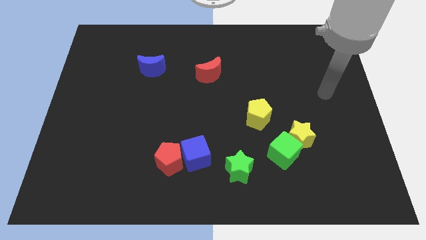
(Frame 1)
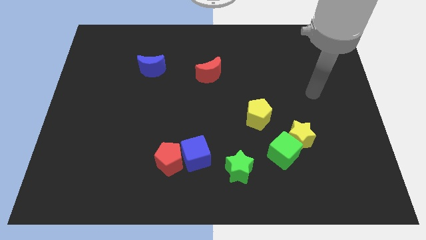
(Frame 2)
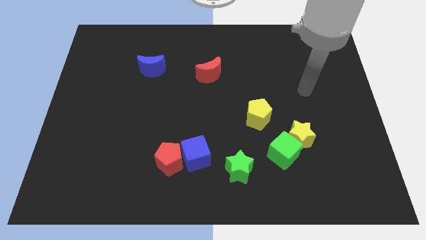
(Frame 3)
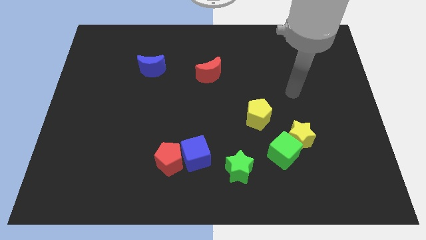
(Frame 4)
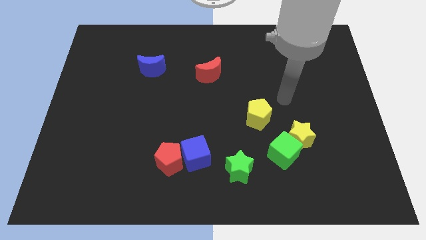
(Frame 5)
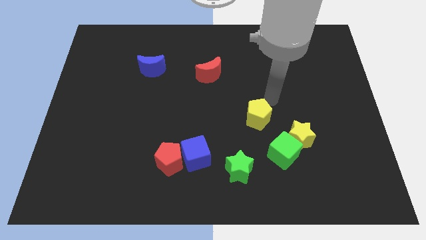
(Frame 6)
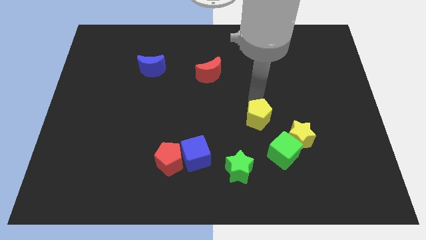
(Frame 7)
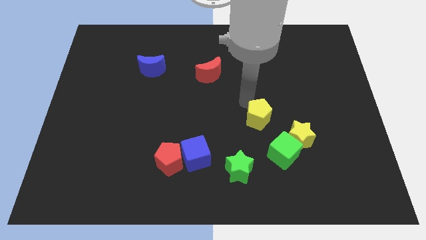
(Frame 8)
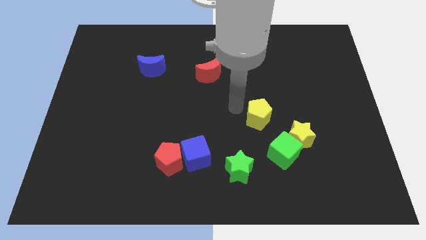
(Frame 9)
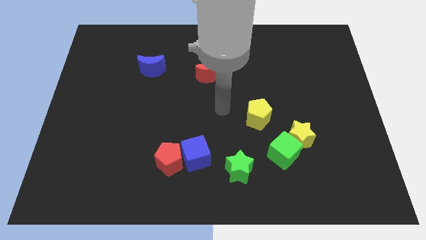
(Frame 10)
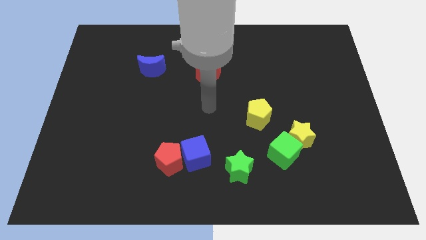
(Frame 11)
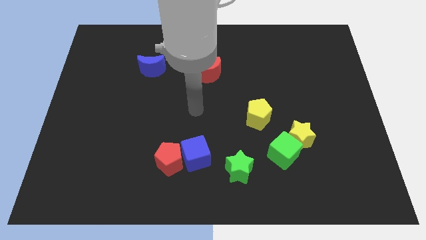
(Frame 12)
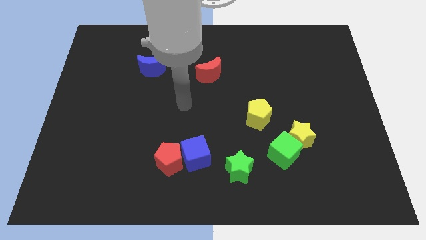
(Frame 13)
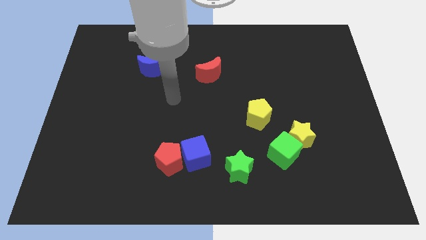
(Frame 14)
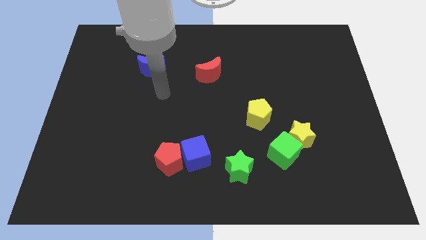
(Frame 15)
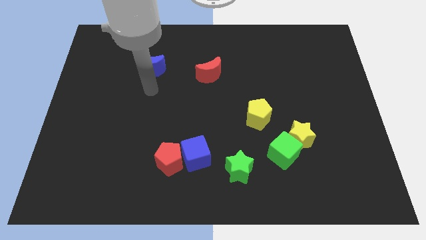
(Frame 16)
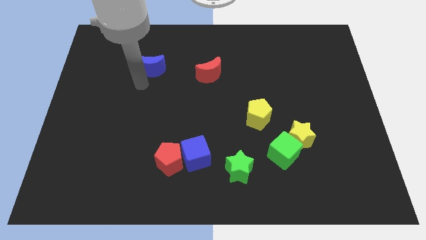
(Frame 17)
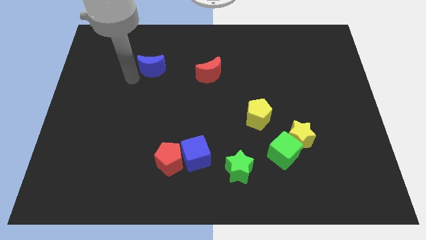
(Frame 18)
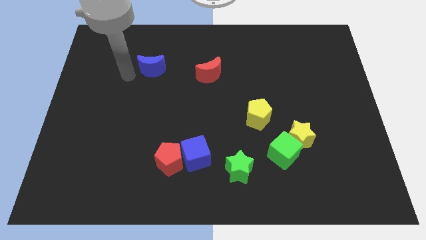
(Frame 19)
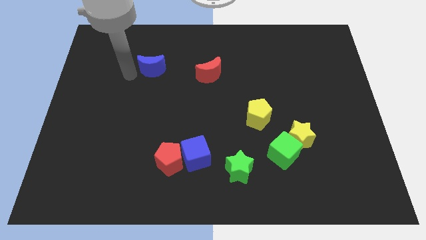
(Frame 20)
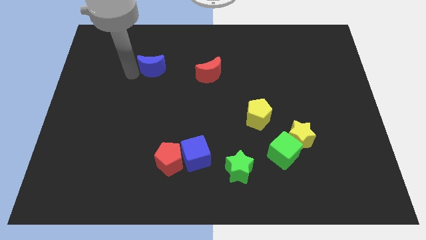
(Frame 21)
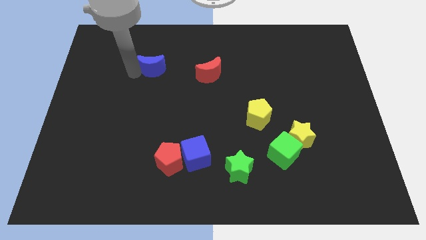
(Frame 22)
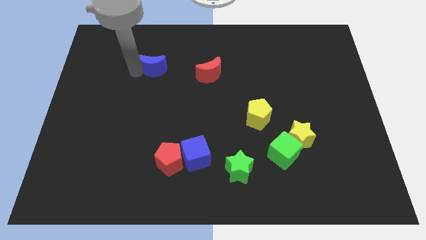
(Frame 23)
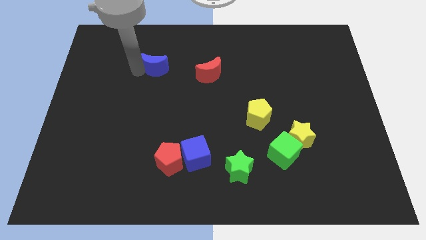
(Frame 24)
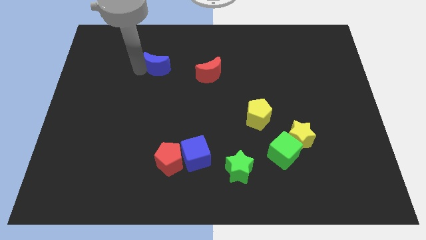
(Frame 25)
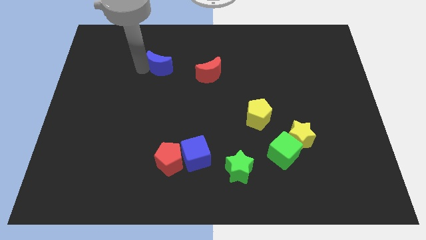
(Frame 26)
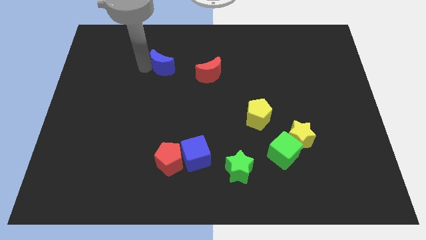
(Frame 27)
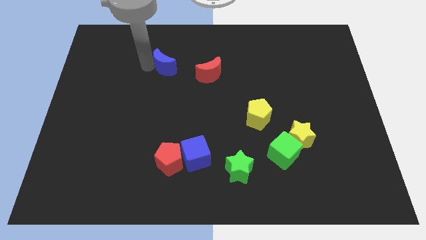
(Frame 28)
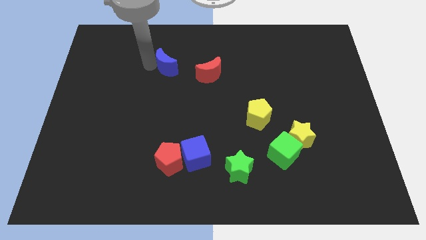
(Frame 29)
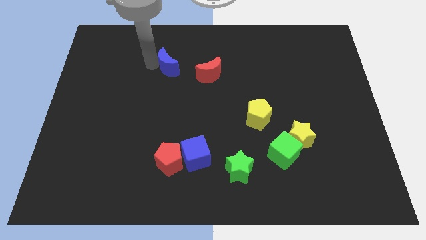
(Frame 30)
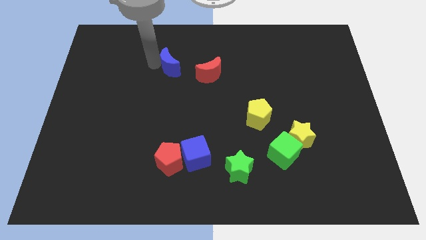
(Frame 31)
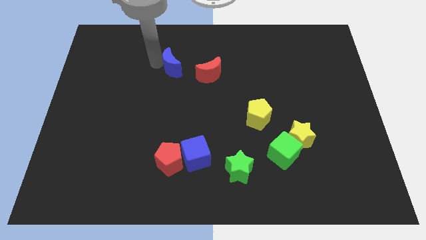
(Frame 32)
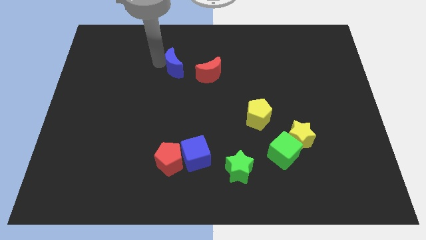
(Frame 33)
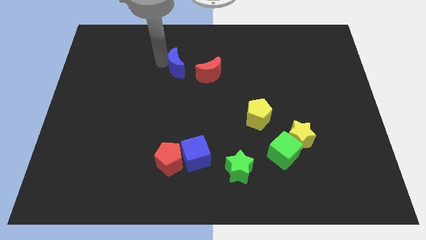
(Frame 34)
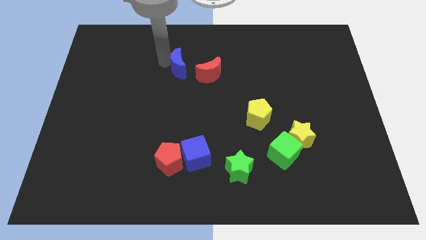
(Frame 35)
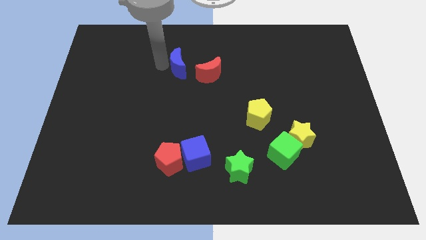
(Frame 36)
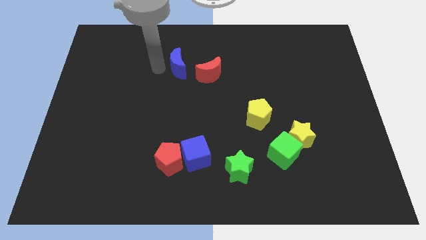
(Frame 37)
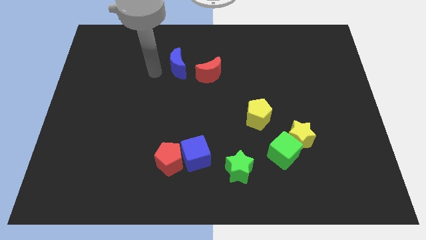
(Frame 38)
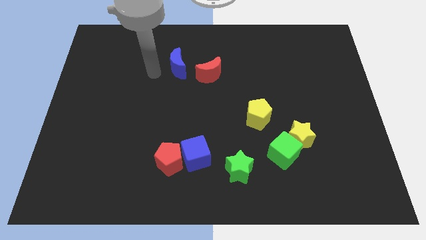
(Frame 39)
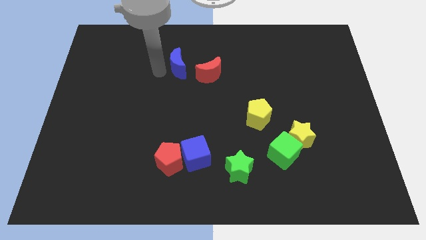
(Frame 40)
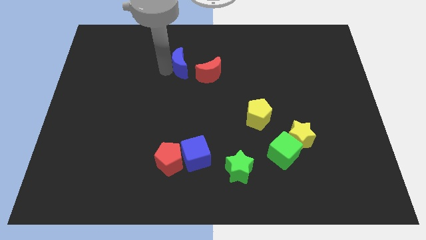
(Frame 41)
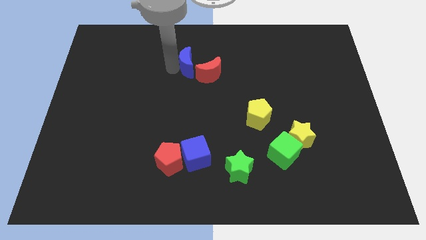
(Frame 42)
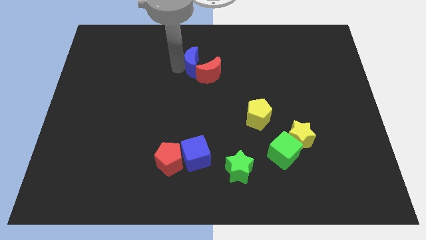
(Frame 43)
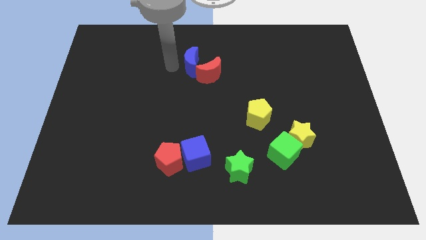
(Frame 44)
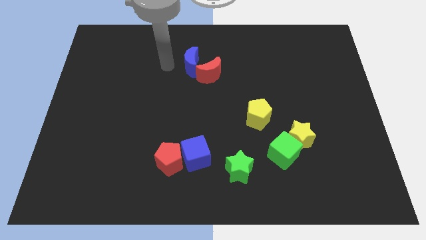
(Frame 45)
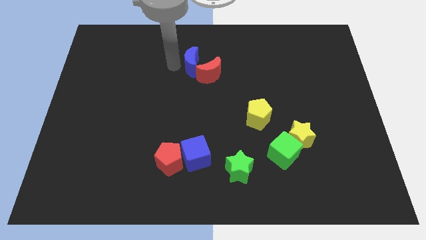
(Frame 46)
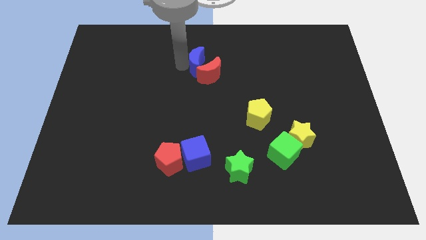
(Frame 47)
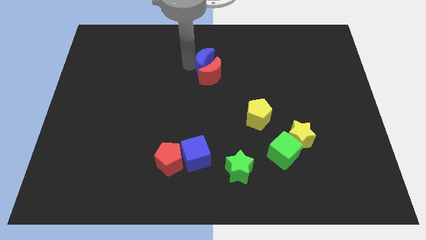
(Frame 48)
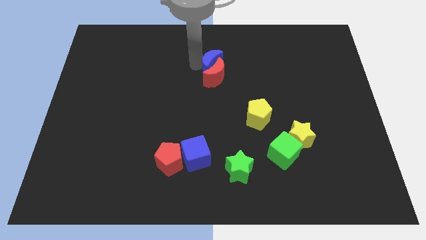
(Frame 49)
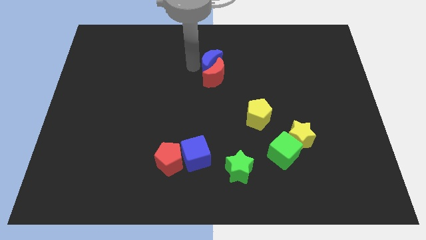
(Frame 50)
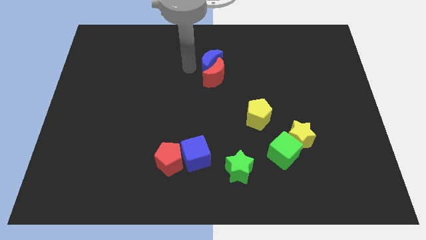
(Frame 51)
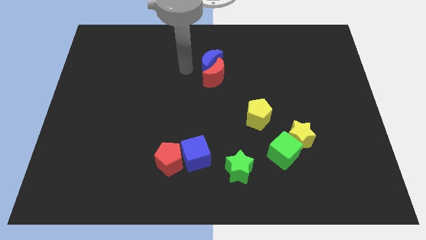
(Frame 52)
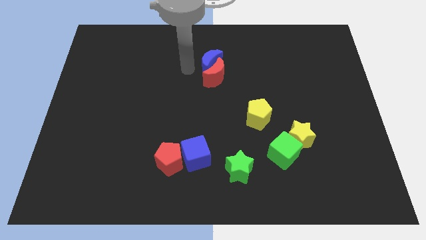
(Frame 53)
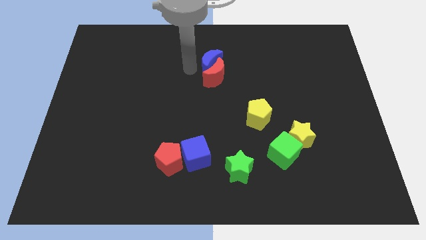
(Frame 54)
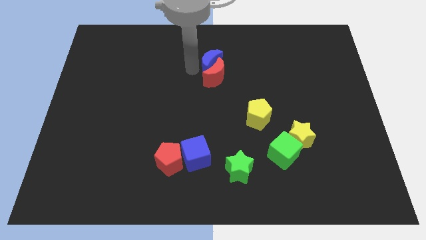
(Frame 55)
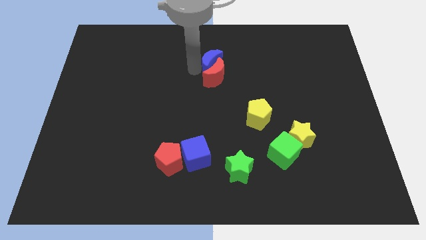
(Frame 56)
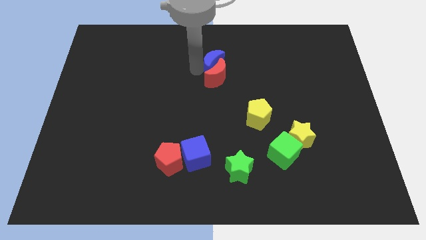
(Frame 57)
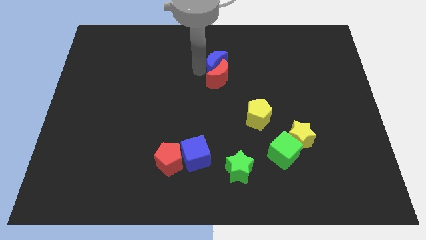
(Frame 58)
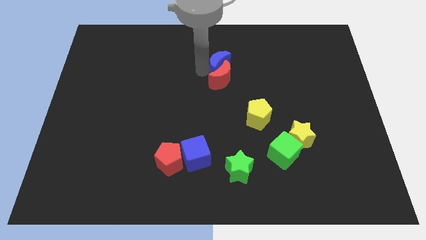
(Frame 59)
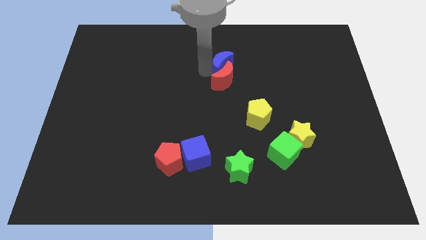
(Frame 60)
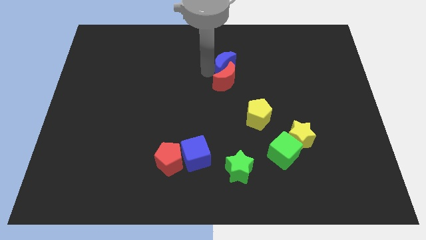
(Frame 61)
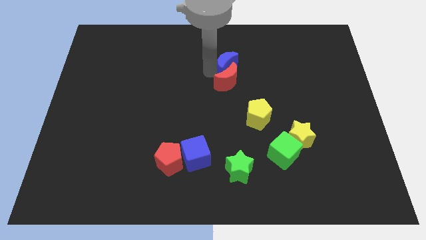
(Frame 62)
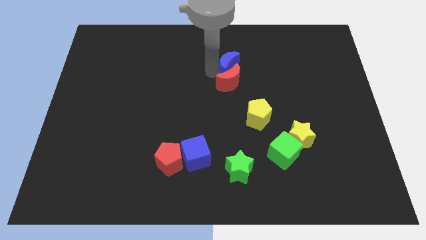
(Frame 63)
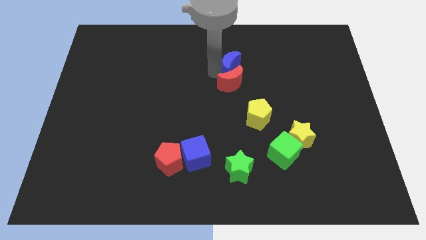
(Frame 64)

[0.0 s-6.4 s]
slide the blue moon right

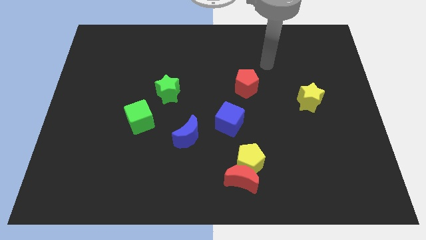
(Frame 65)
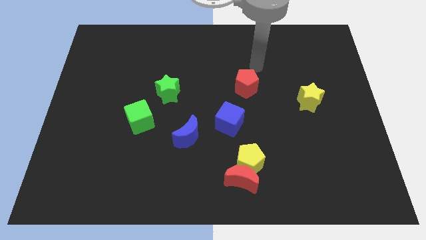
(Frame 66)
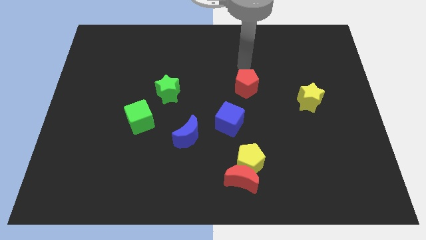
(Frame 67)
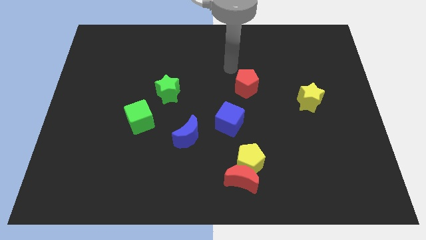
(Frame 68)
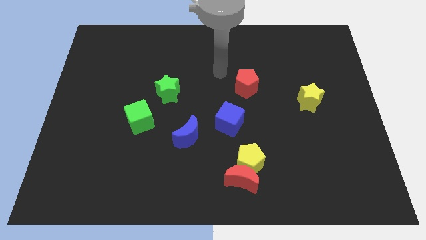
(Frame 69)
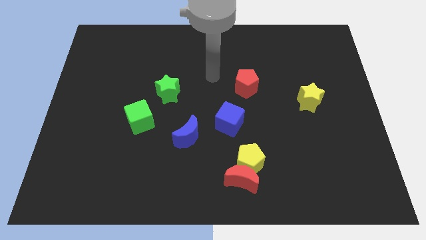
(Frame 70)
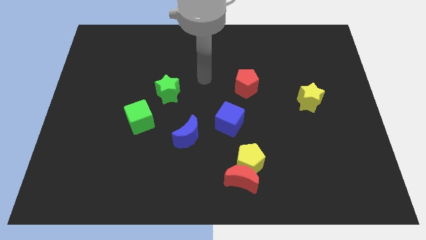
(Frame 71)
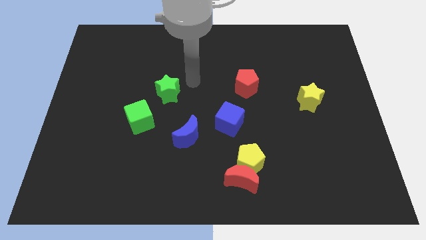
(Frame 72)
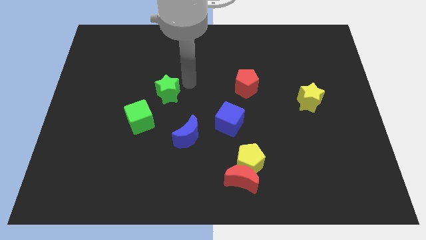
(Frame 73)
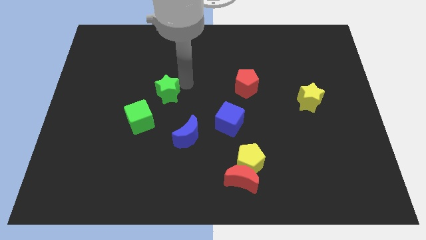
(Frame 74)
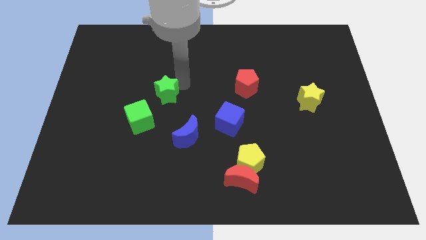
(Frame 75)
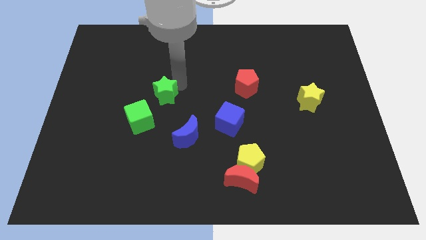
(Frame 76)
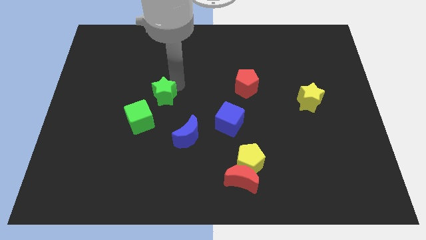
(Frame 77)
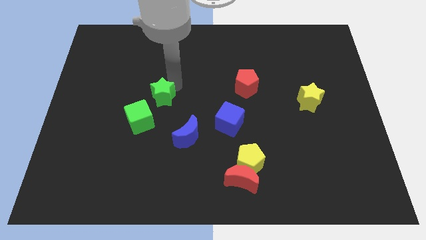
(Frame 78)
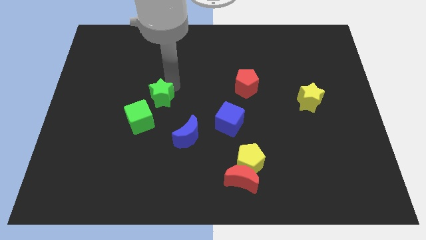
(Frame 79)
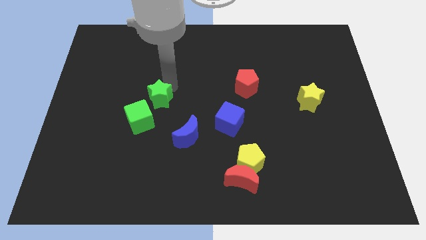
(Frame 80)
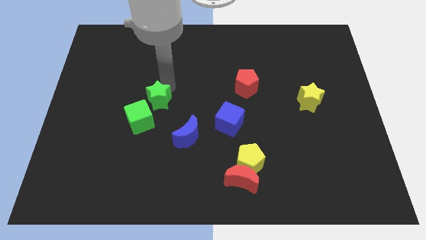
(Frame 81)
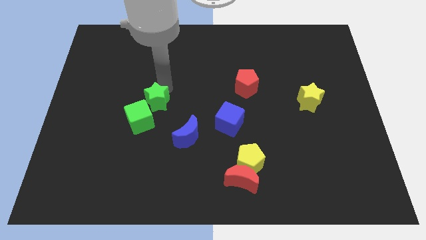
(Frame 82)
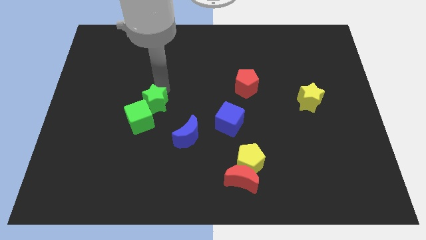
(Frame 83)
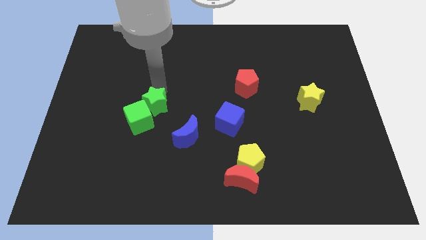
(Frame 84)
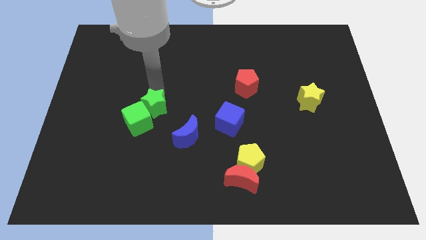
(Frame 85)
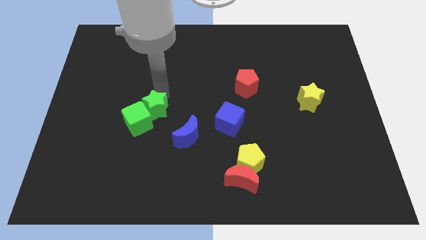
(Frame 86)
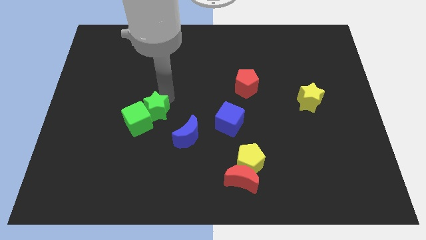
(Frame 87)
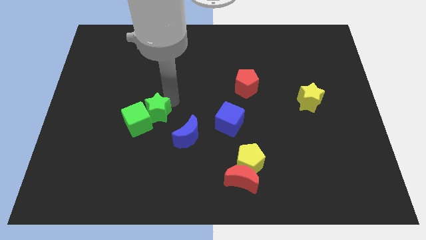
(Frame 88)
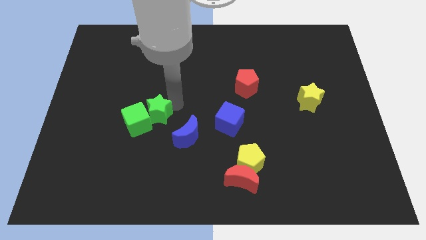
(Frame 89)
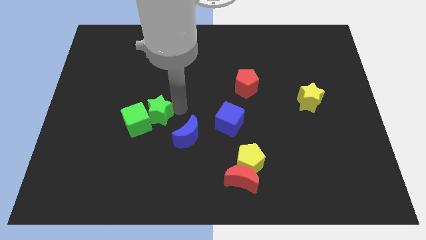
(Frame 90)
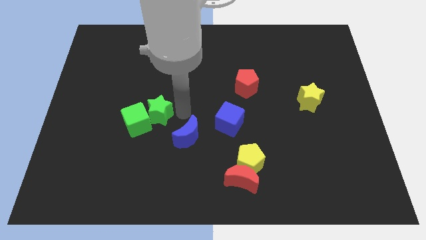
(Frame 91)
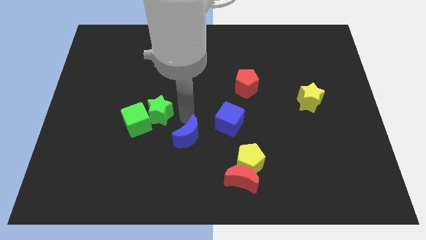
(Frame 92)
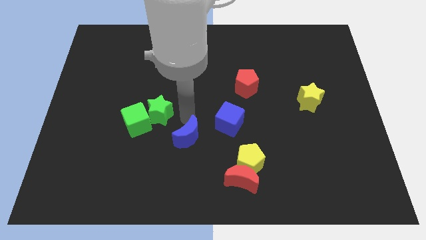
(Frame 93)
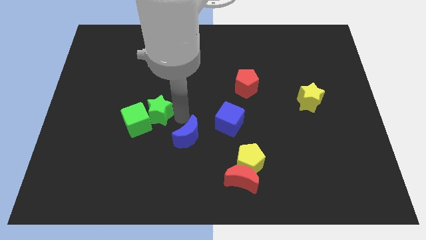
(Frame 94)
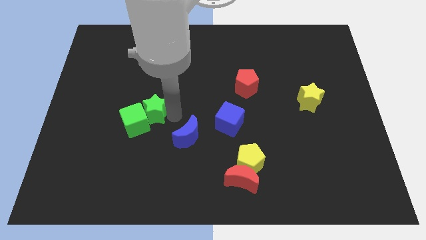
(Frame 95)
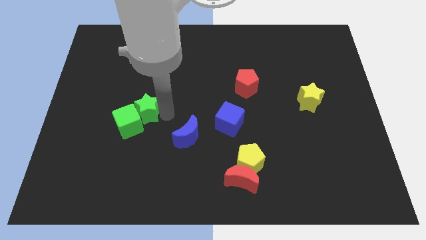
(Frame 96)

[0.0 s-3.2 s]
slide the green star down and to the left a bit
